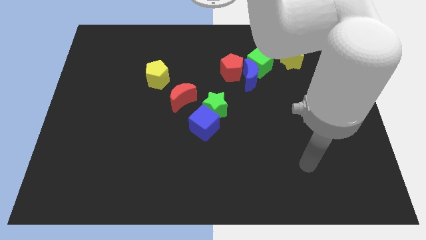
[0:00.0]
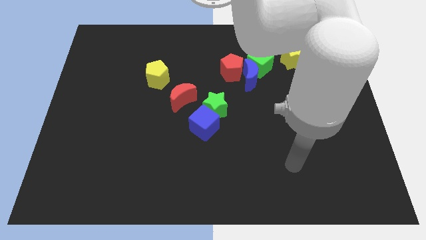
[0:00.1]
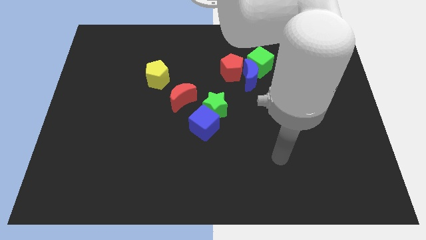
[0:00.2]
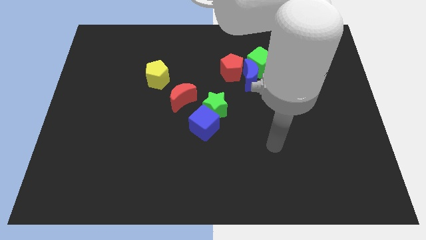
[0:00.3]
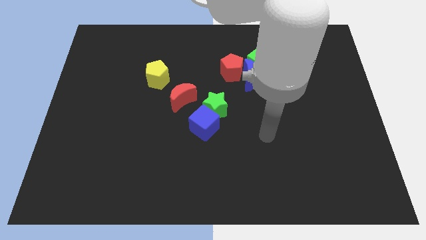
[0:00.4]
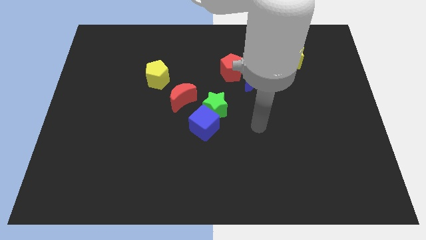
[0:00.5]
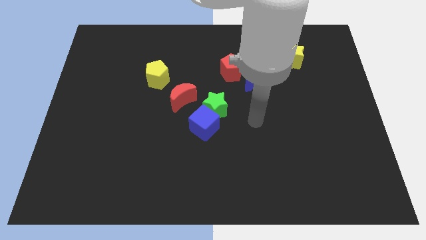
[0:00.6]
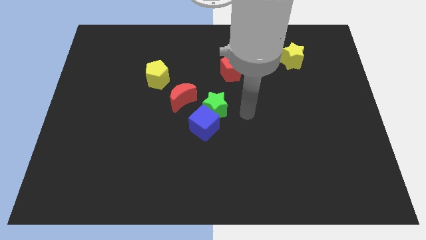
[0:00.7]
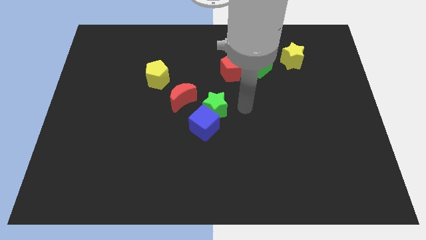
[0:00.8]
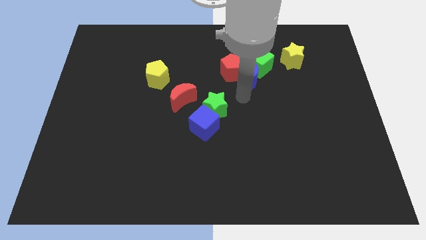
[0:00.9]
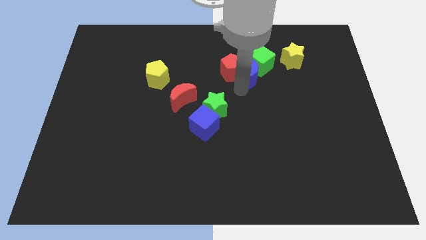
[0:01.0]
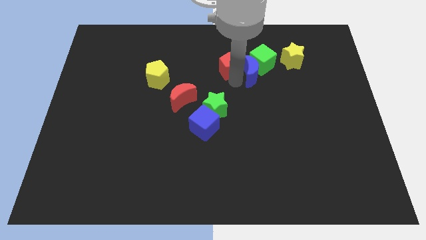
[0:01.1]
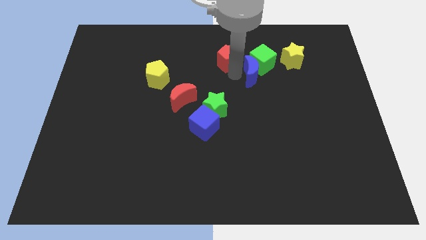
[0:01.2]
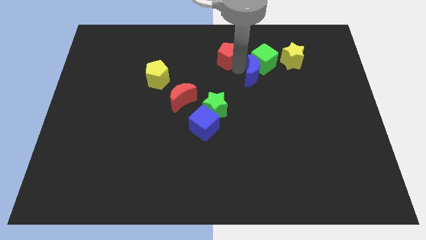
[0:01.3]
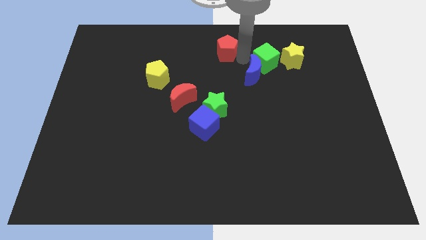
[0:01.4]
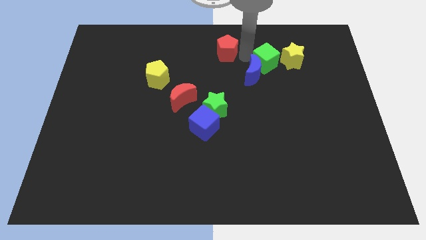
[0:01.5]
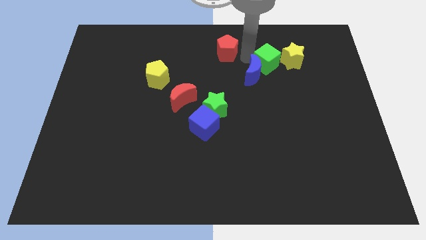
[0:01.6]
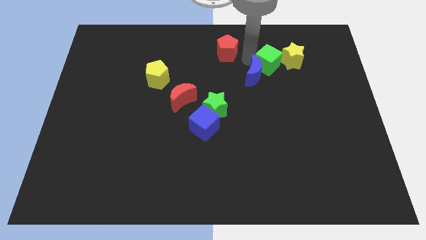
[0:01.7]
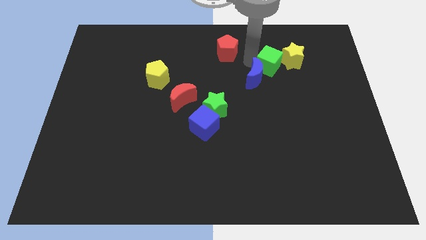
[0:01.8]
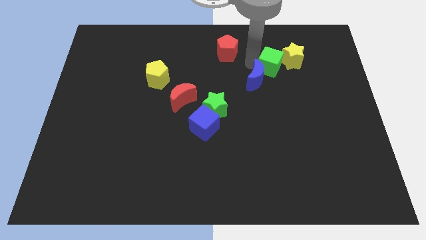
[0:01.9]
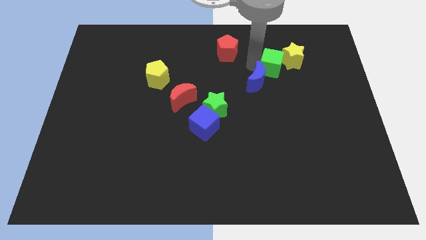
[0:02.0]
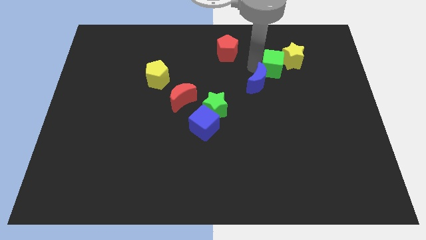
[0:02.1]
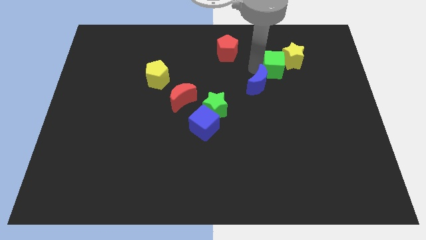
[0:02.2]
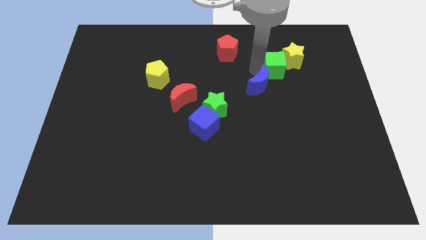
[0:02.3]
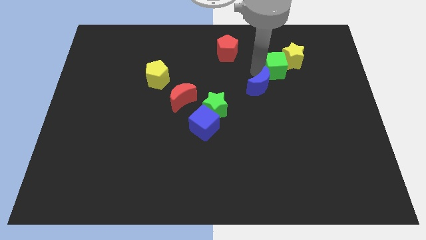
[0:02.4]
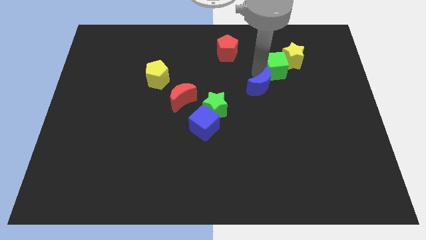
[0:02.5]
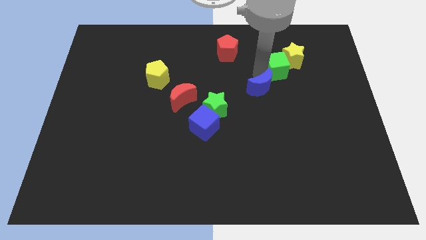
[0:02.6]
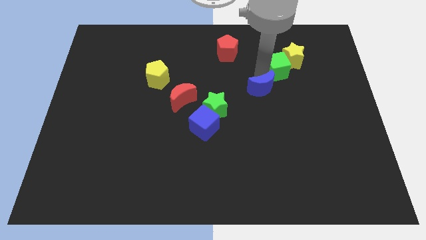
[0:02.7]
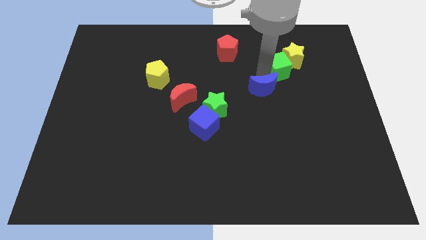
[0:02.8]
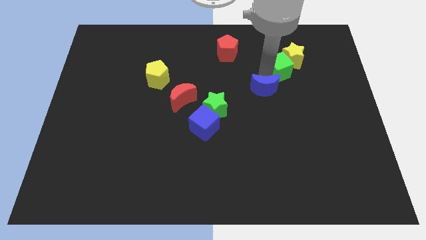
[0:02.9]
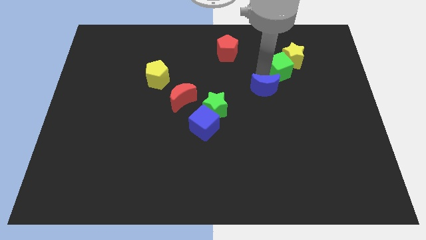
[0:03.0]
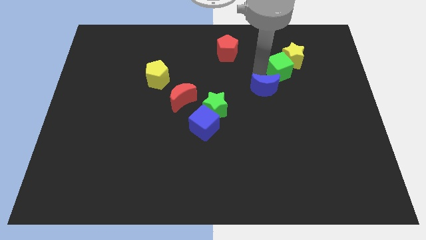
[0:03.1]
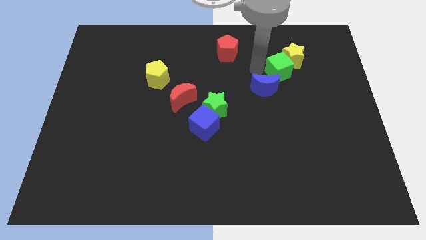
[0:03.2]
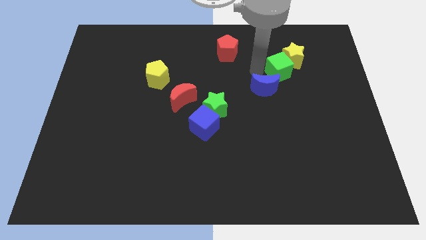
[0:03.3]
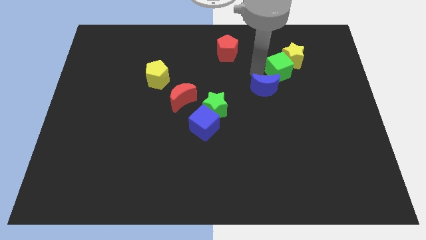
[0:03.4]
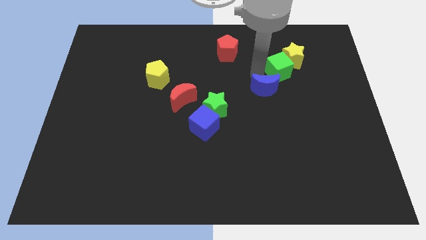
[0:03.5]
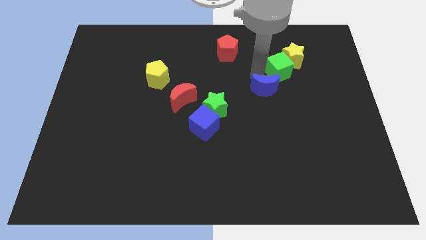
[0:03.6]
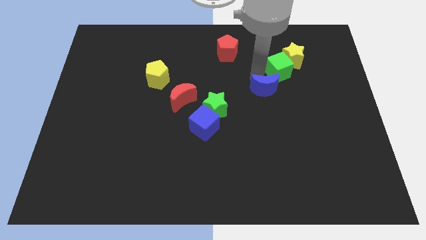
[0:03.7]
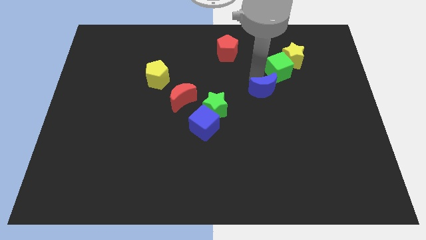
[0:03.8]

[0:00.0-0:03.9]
separate the blue moon from the green cube and red pentagon

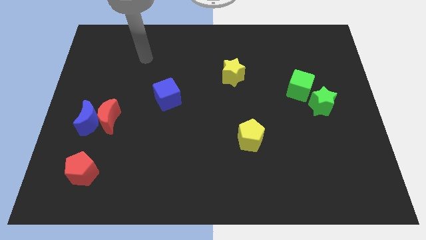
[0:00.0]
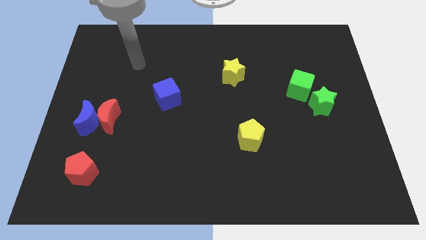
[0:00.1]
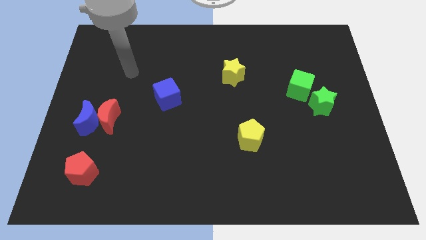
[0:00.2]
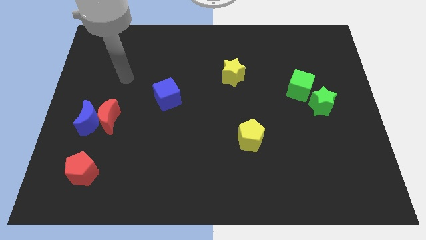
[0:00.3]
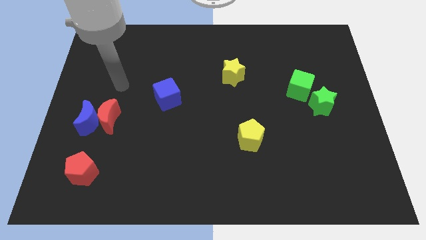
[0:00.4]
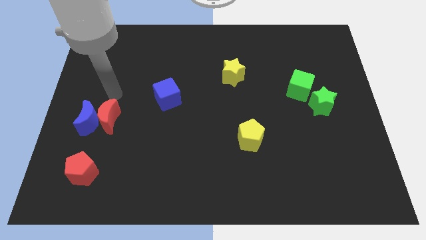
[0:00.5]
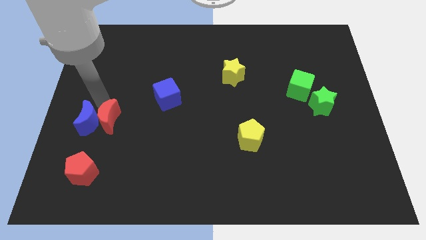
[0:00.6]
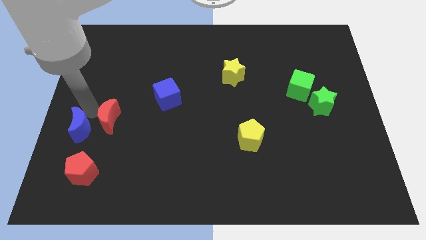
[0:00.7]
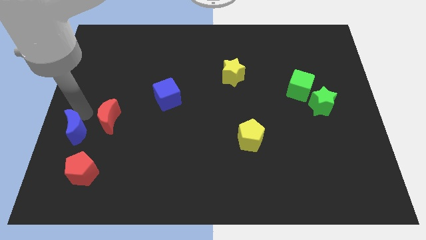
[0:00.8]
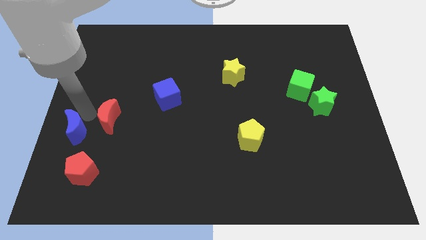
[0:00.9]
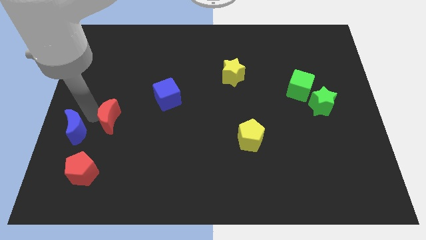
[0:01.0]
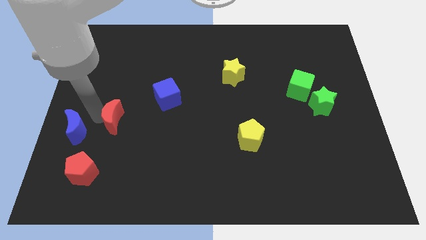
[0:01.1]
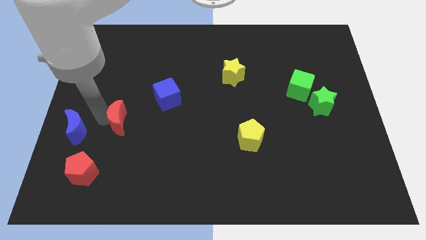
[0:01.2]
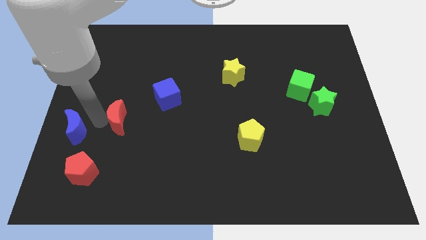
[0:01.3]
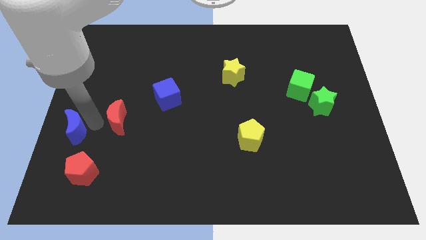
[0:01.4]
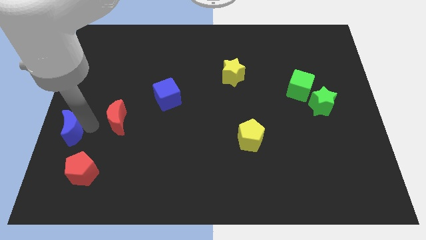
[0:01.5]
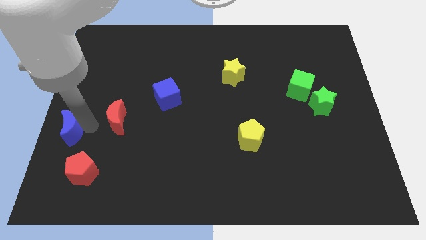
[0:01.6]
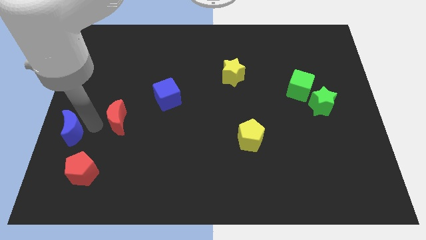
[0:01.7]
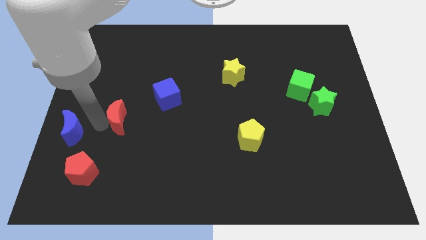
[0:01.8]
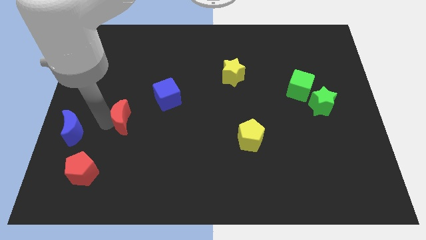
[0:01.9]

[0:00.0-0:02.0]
pull the red moon apart from the blue moon

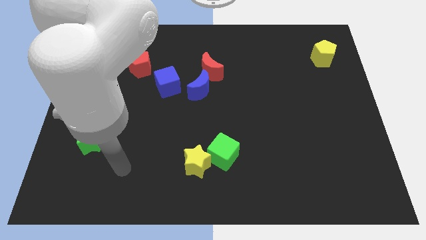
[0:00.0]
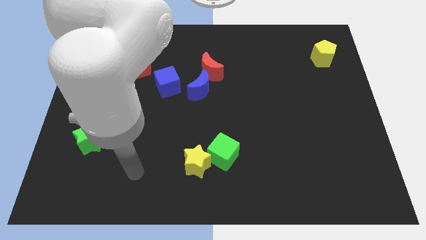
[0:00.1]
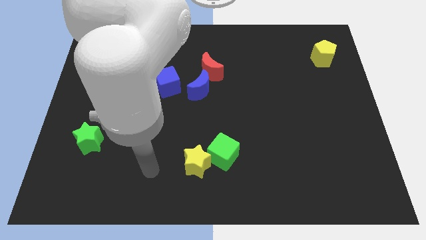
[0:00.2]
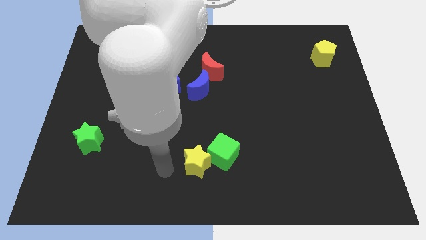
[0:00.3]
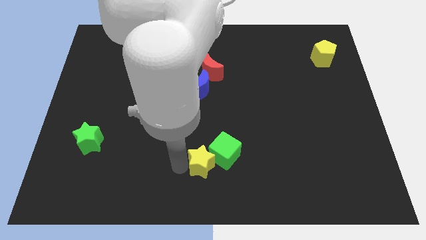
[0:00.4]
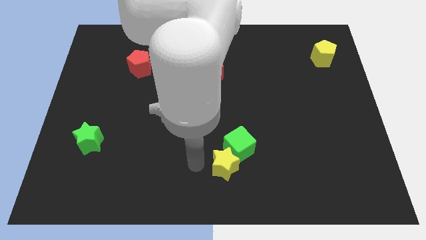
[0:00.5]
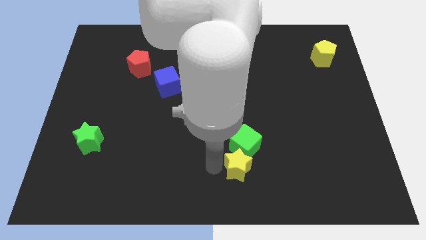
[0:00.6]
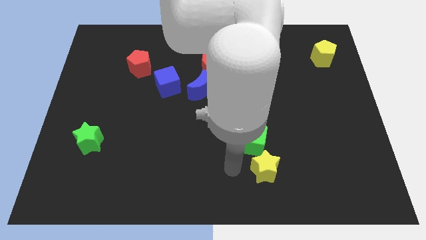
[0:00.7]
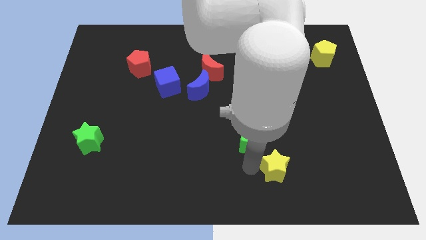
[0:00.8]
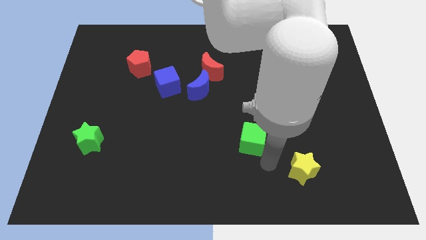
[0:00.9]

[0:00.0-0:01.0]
pull the green cube apart from the yellow star

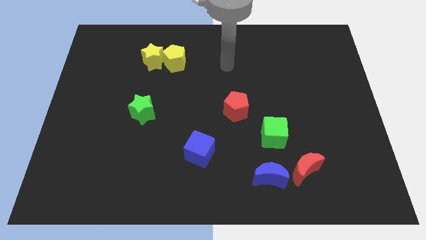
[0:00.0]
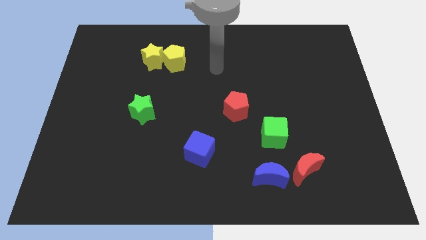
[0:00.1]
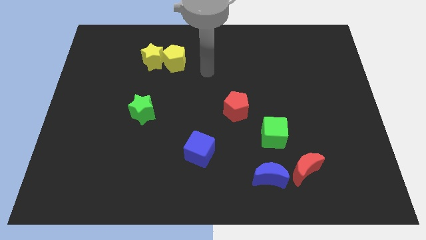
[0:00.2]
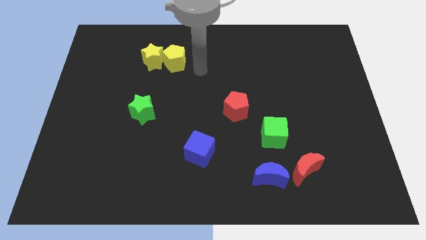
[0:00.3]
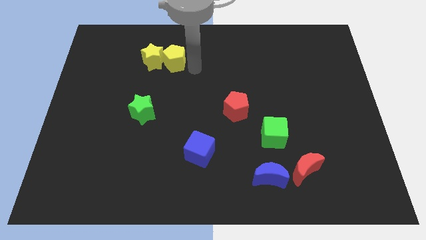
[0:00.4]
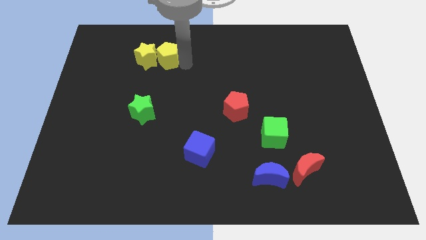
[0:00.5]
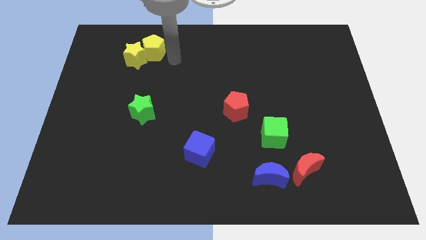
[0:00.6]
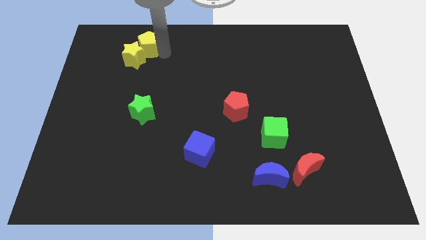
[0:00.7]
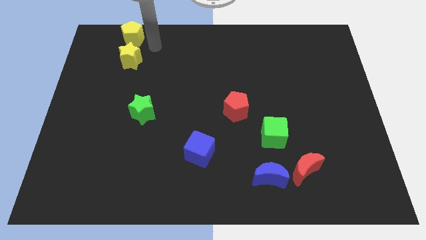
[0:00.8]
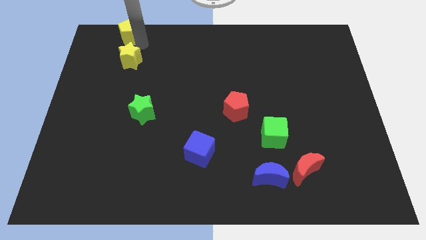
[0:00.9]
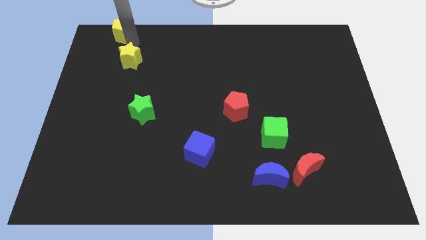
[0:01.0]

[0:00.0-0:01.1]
separate the yellow star from the yellow pentagon

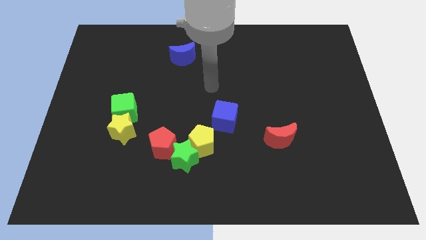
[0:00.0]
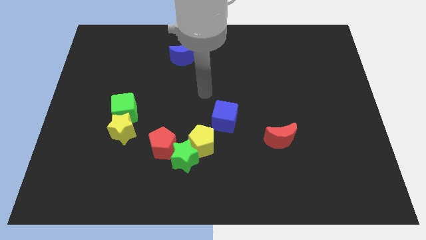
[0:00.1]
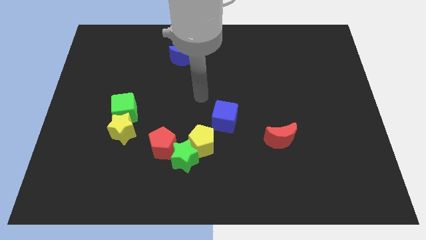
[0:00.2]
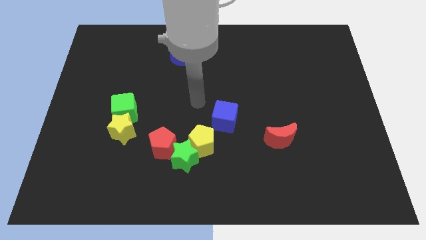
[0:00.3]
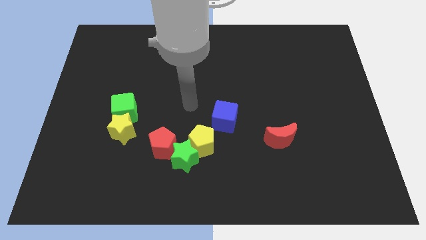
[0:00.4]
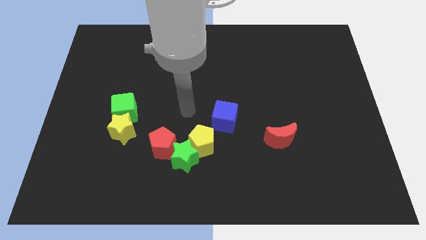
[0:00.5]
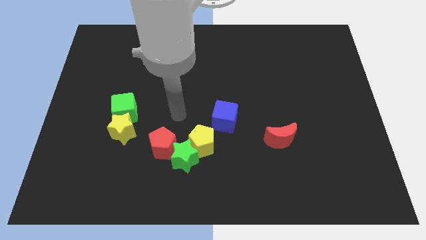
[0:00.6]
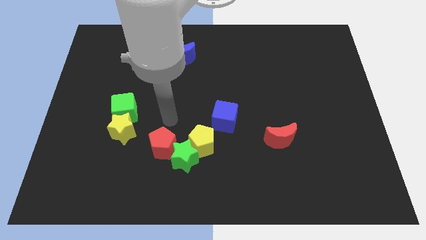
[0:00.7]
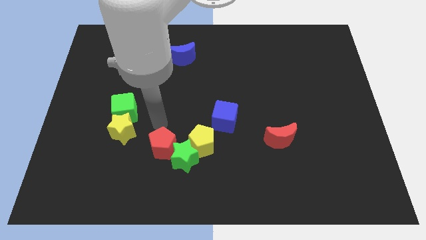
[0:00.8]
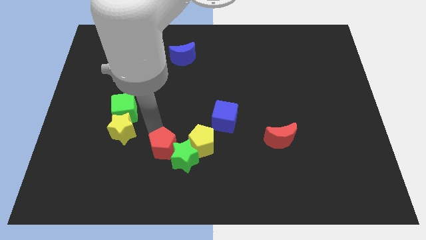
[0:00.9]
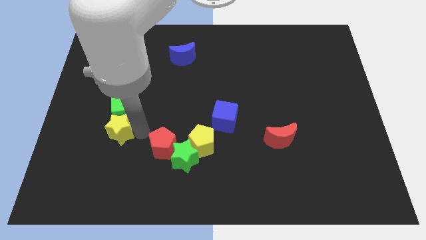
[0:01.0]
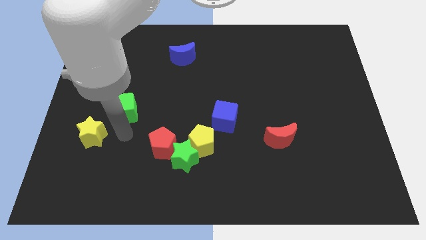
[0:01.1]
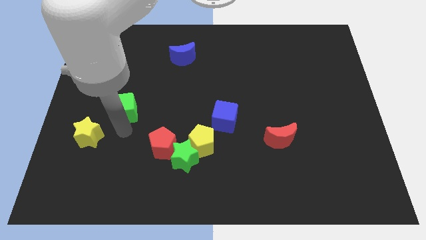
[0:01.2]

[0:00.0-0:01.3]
move the green cube away from the yellow star
